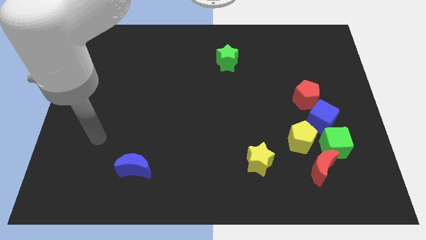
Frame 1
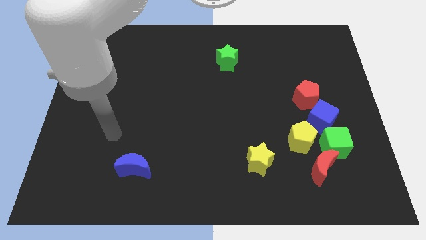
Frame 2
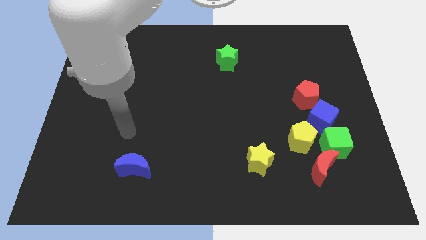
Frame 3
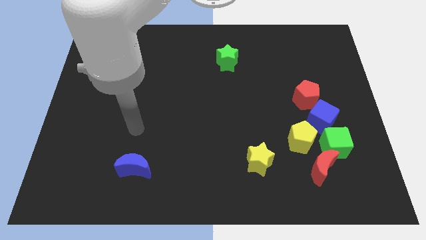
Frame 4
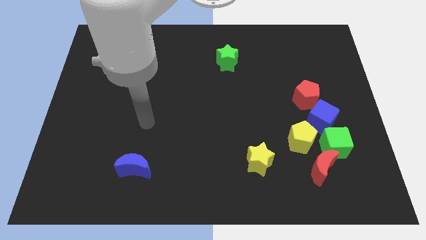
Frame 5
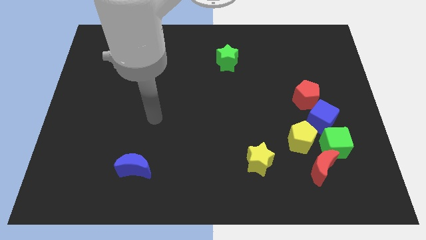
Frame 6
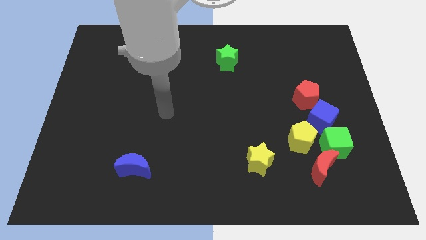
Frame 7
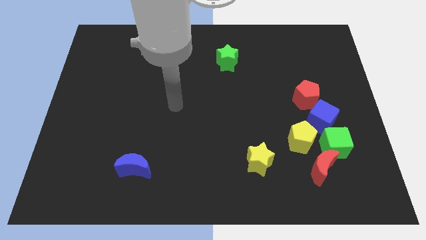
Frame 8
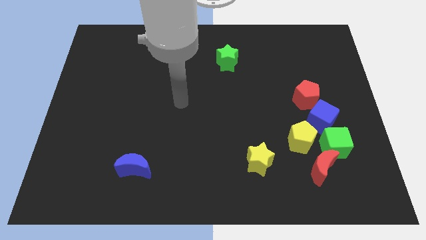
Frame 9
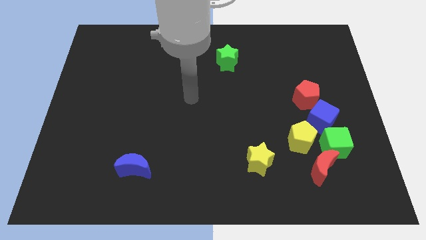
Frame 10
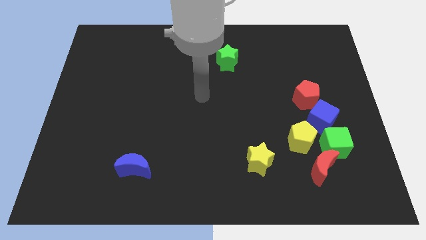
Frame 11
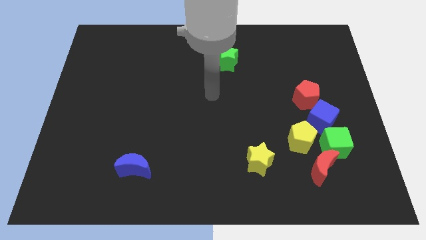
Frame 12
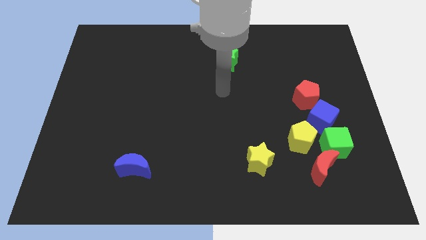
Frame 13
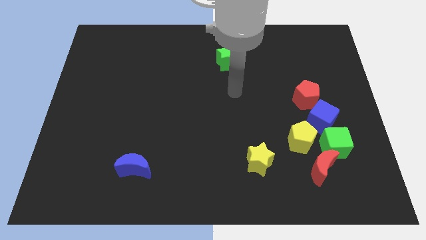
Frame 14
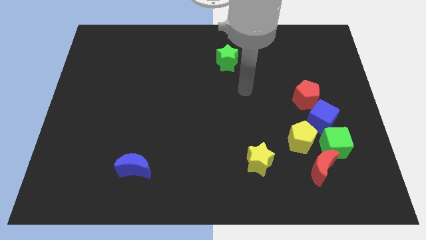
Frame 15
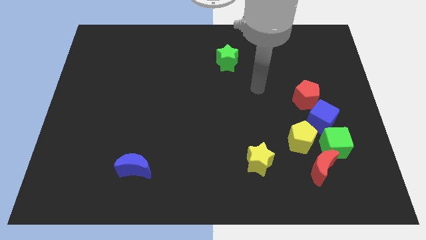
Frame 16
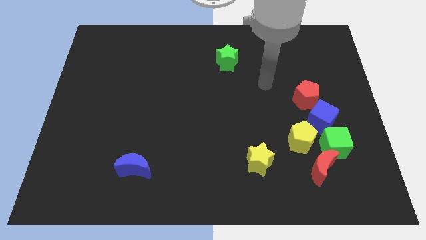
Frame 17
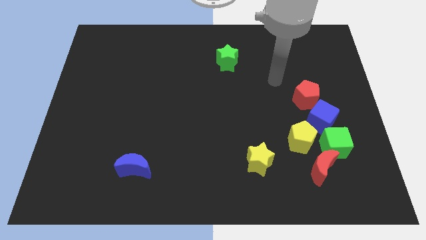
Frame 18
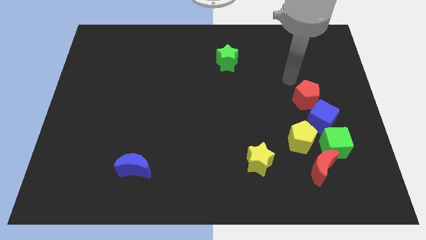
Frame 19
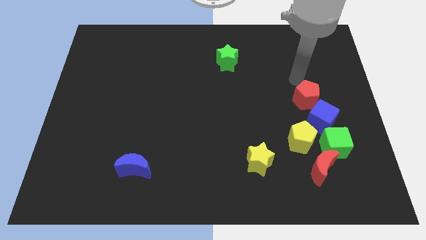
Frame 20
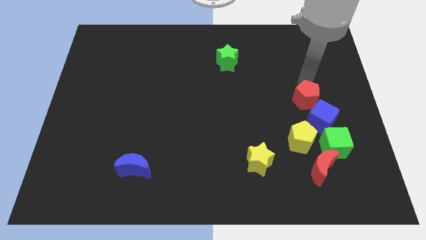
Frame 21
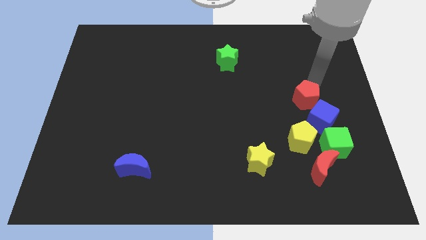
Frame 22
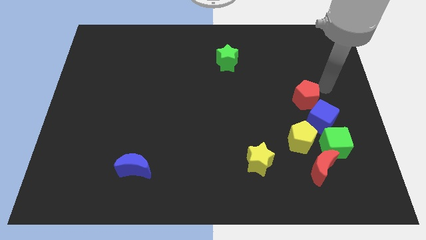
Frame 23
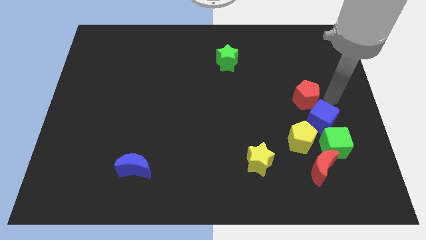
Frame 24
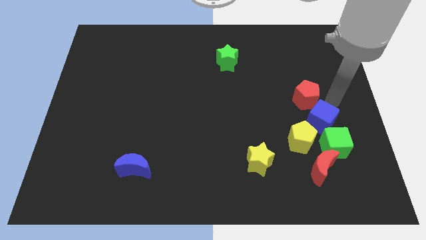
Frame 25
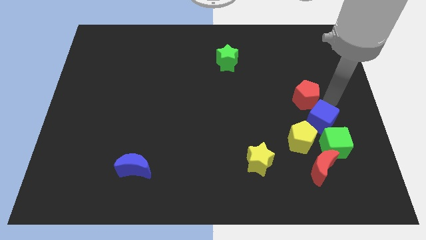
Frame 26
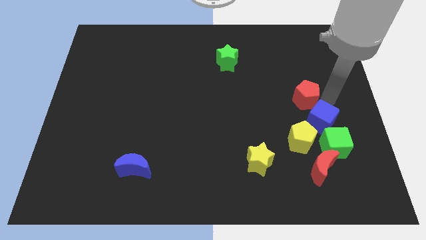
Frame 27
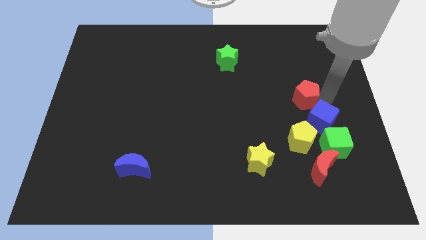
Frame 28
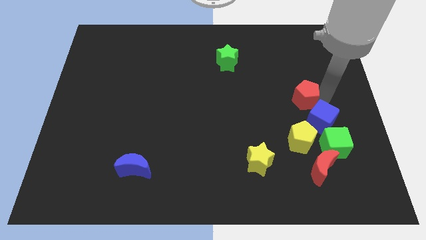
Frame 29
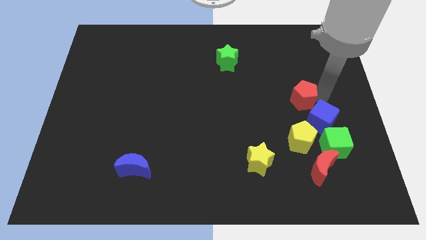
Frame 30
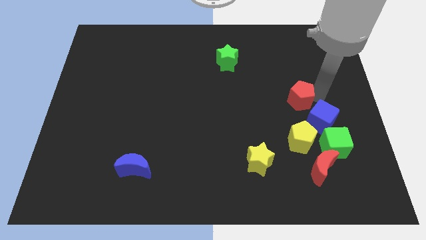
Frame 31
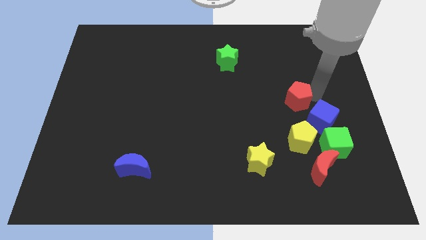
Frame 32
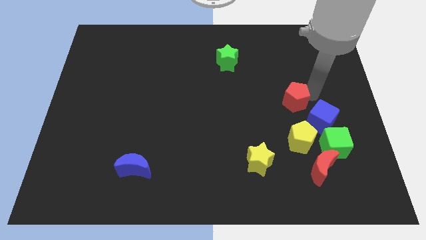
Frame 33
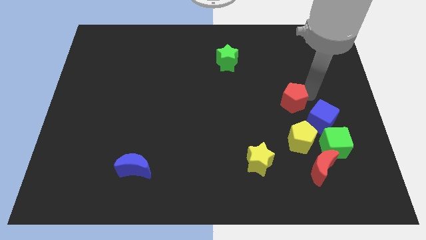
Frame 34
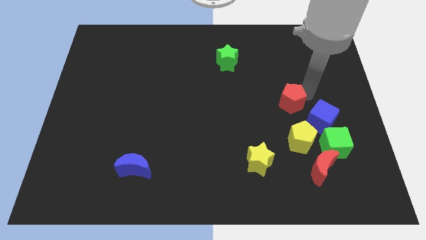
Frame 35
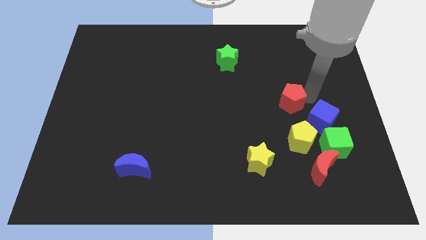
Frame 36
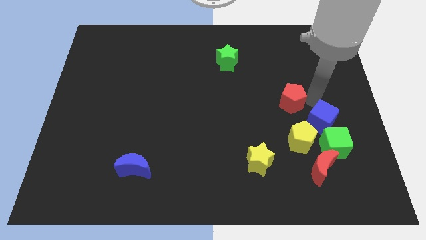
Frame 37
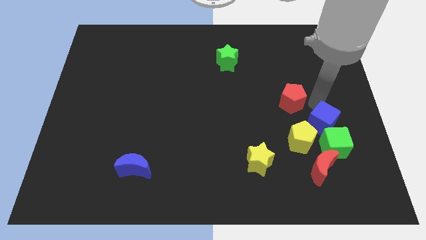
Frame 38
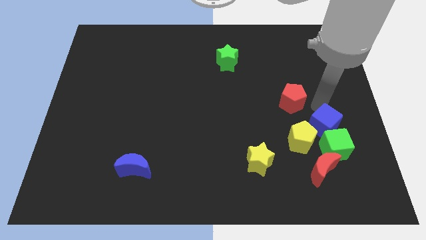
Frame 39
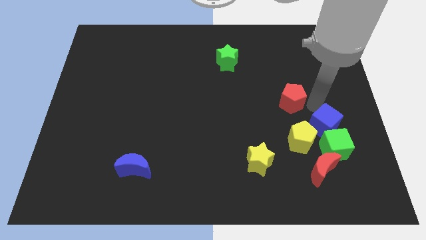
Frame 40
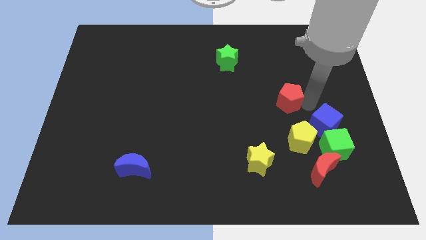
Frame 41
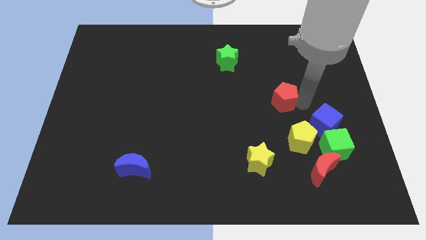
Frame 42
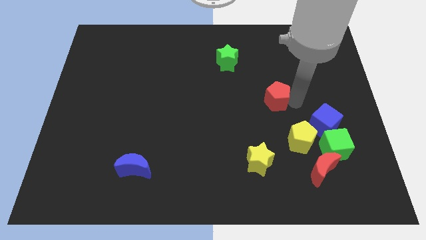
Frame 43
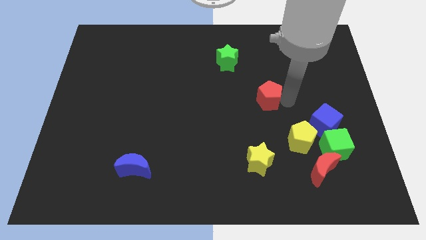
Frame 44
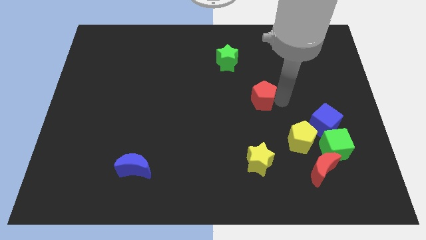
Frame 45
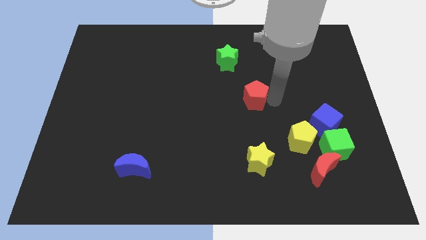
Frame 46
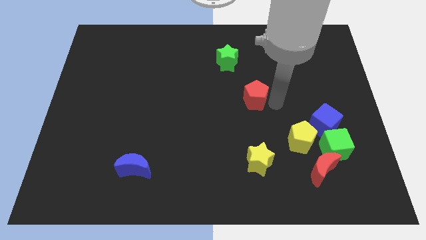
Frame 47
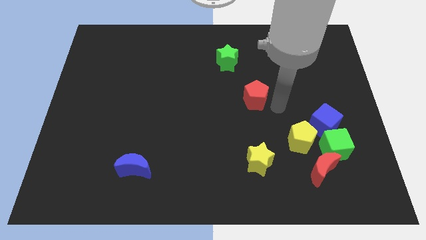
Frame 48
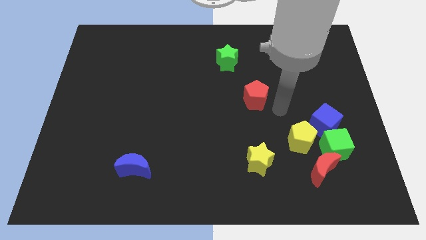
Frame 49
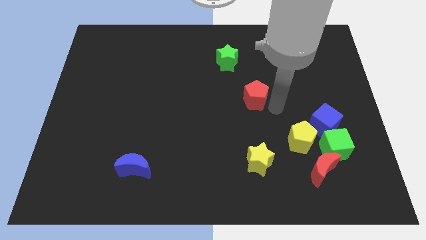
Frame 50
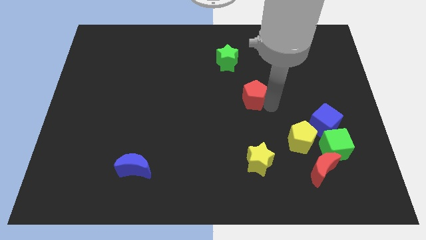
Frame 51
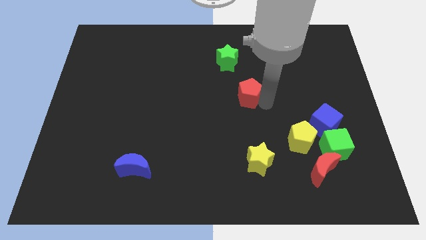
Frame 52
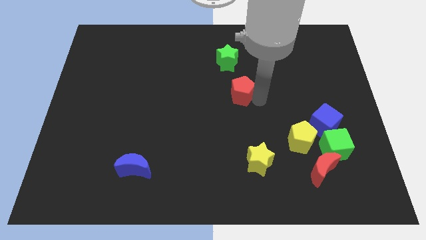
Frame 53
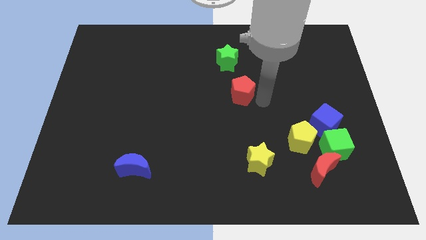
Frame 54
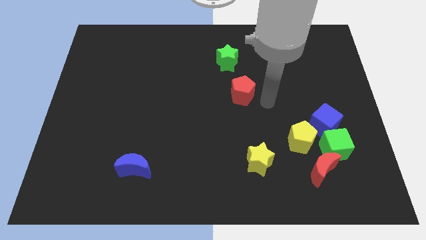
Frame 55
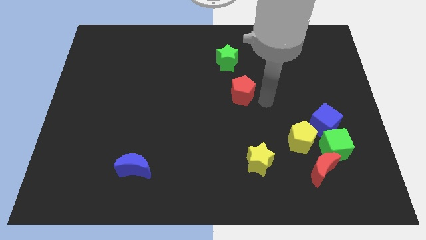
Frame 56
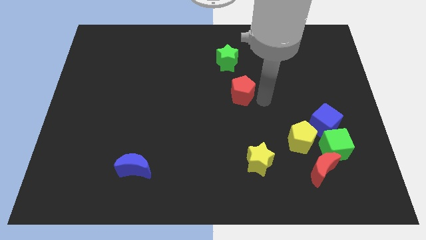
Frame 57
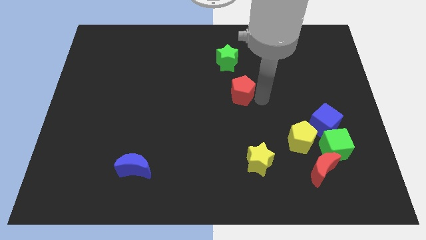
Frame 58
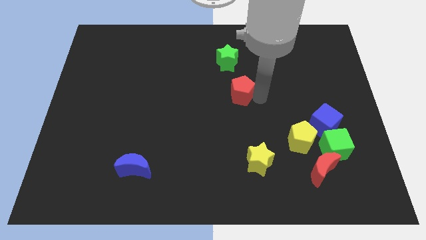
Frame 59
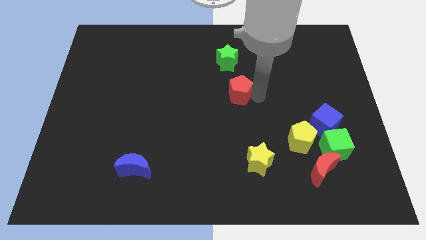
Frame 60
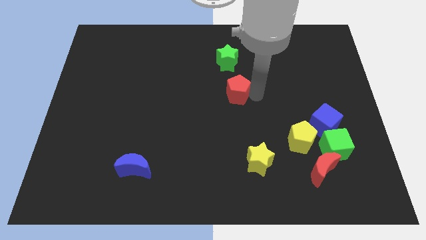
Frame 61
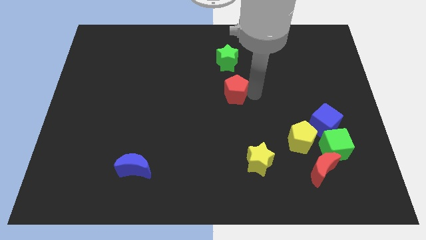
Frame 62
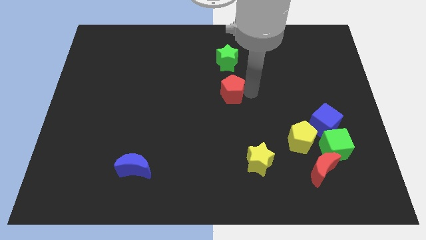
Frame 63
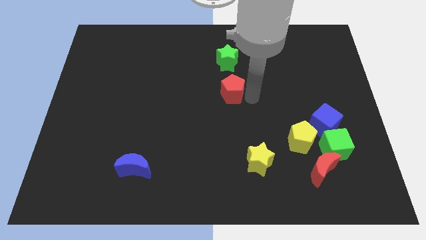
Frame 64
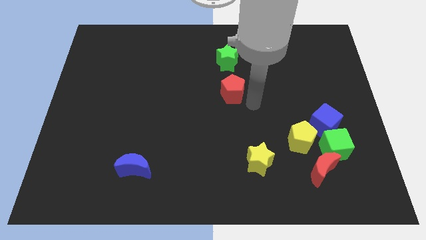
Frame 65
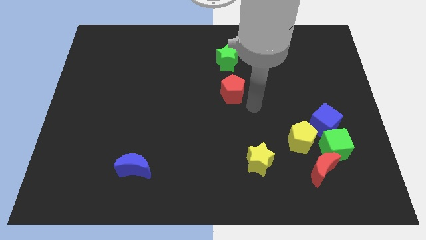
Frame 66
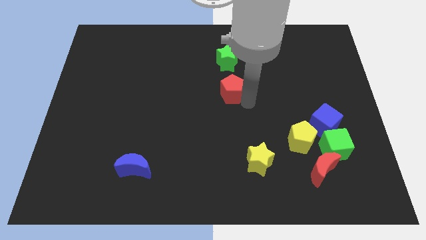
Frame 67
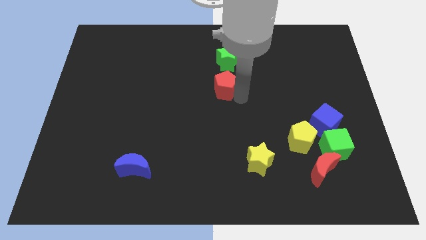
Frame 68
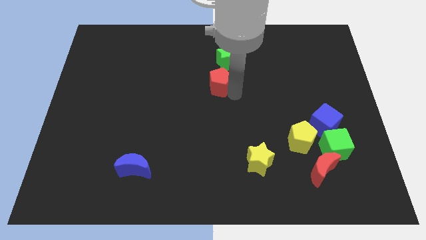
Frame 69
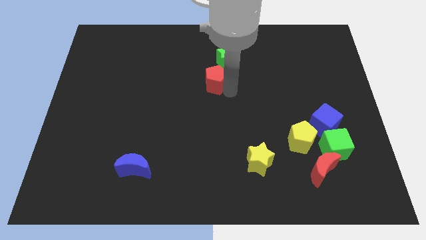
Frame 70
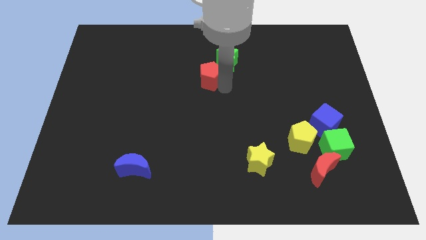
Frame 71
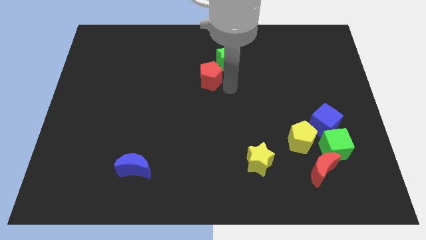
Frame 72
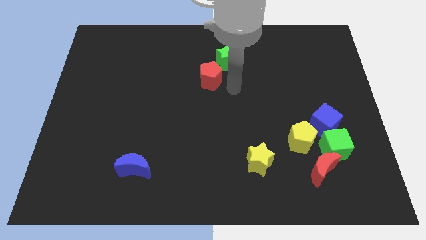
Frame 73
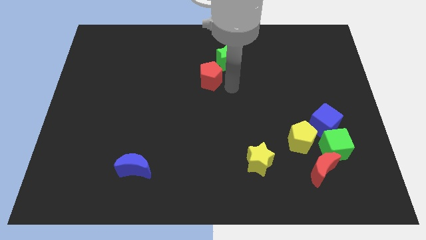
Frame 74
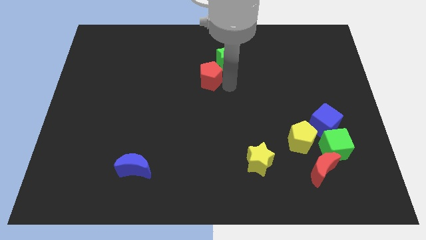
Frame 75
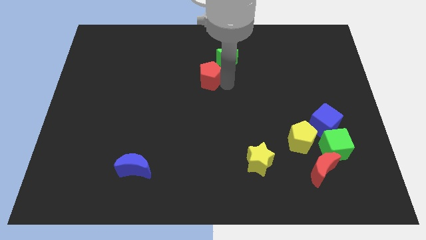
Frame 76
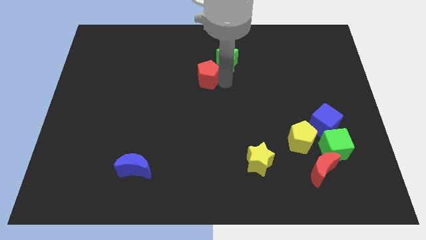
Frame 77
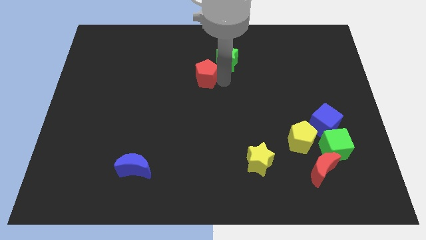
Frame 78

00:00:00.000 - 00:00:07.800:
push the red pentagon to the left of the green star
